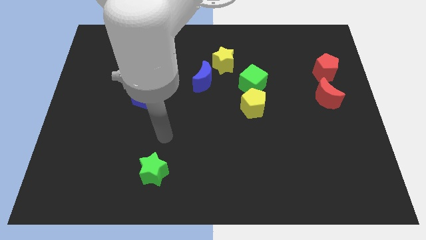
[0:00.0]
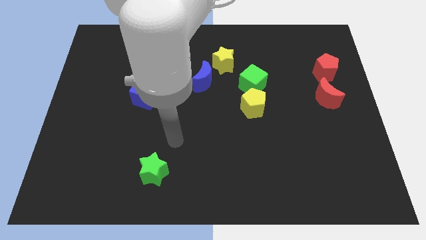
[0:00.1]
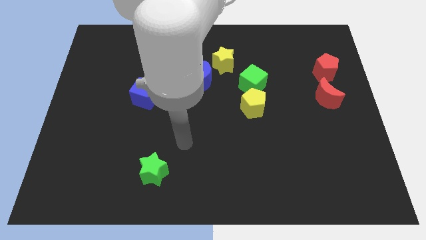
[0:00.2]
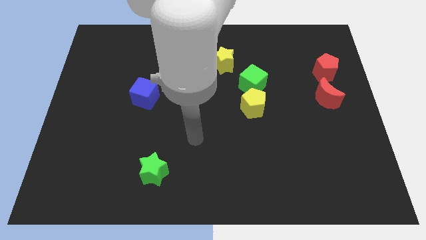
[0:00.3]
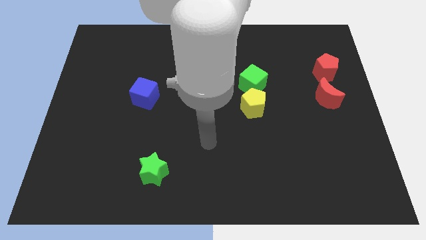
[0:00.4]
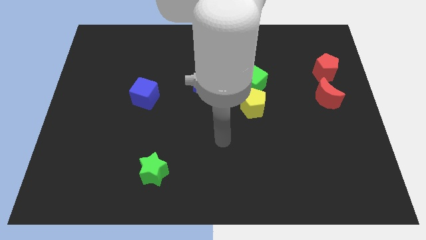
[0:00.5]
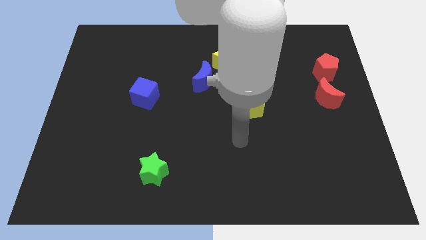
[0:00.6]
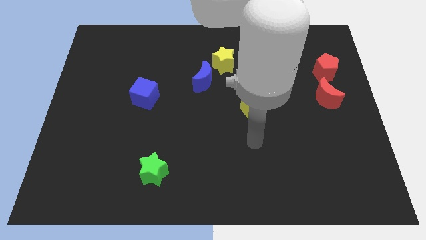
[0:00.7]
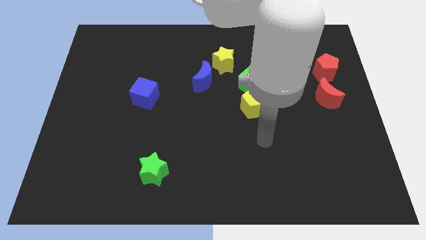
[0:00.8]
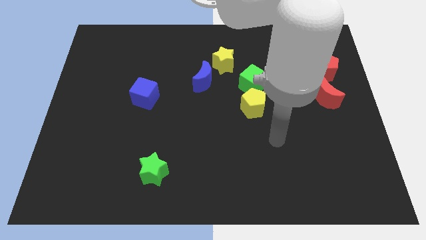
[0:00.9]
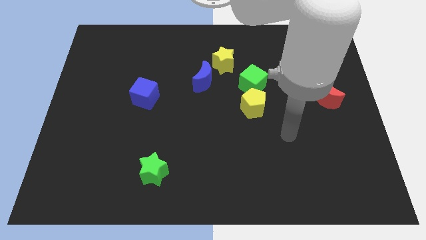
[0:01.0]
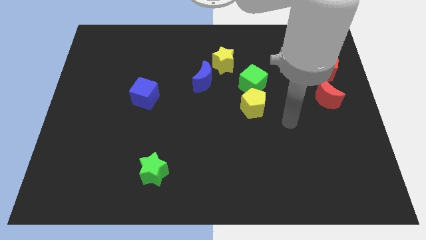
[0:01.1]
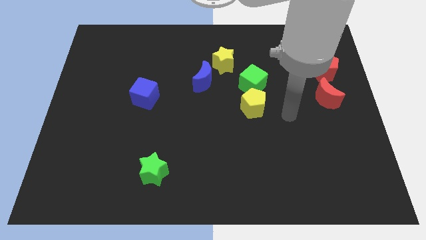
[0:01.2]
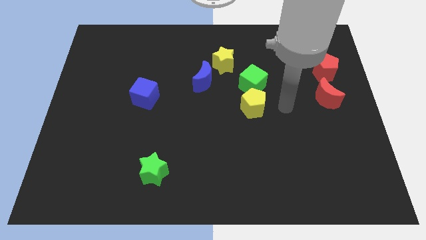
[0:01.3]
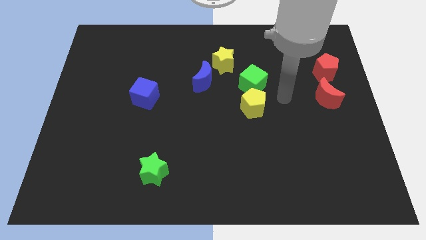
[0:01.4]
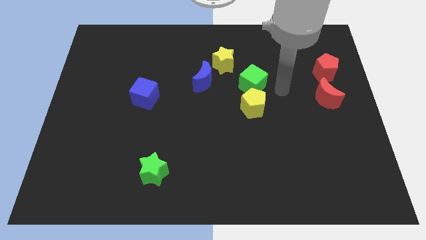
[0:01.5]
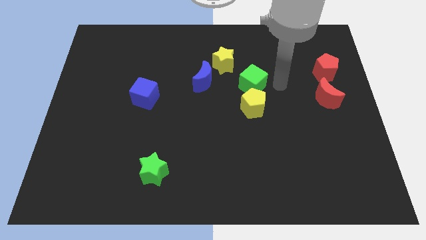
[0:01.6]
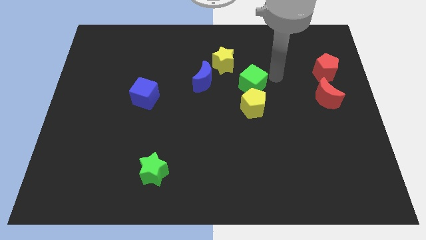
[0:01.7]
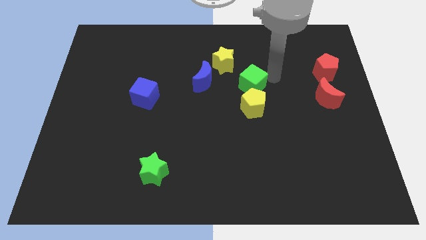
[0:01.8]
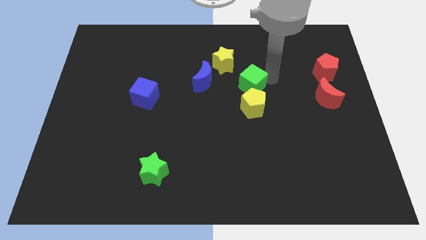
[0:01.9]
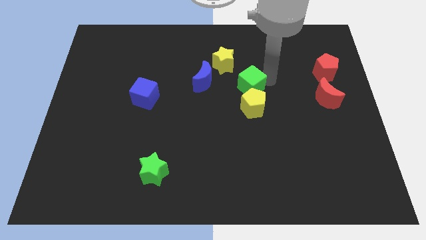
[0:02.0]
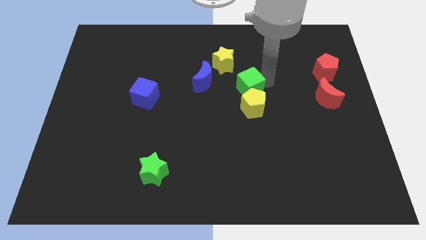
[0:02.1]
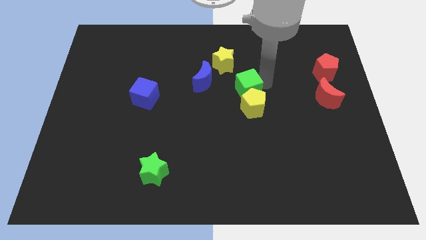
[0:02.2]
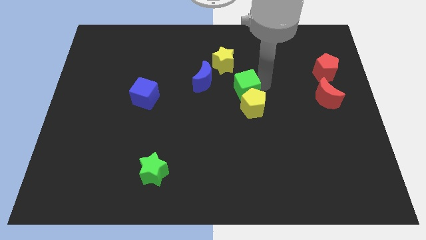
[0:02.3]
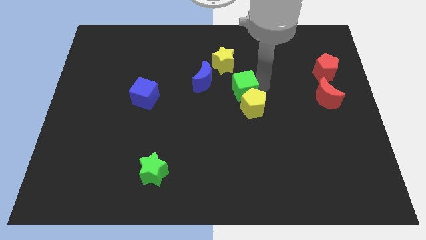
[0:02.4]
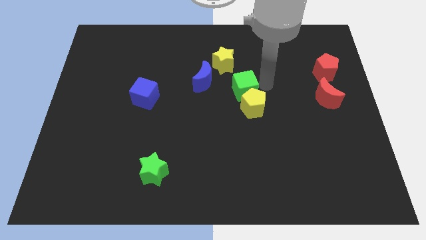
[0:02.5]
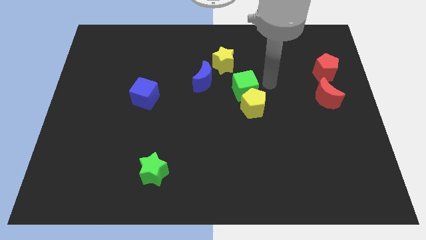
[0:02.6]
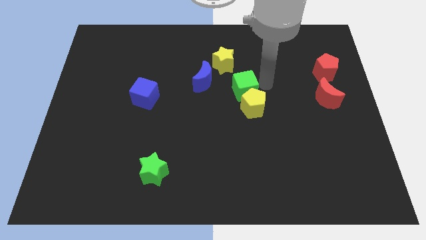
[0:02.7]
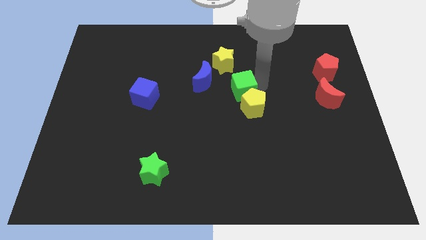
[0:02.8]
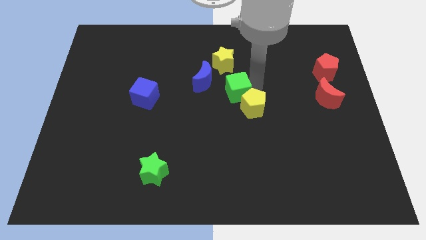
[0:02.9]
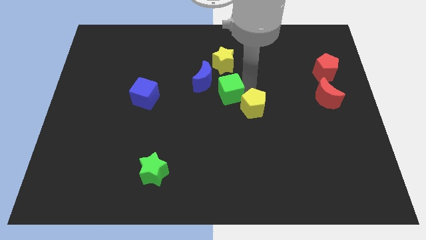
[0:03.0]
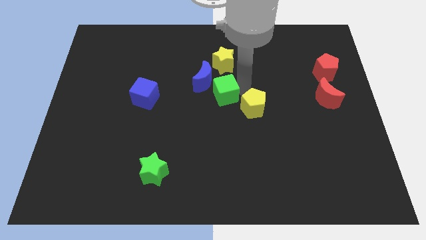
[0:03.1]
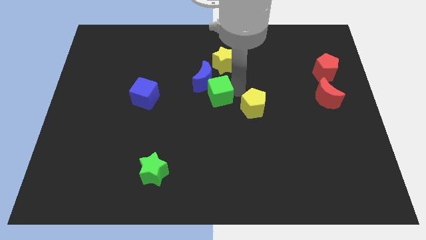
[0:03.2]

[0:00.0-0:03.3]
slide the green cube left a little bit

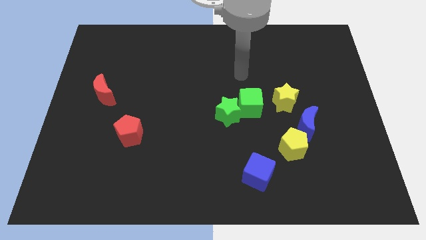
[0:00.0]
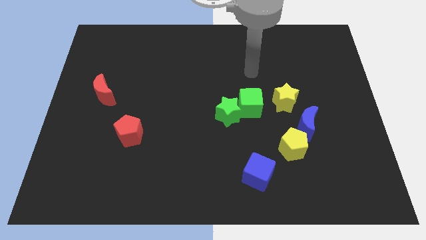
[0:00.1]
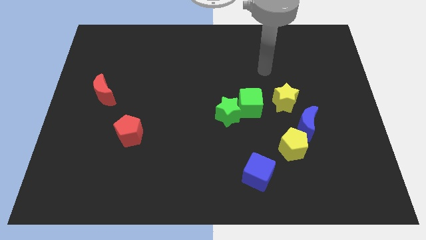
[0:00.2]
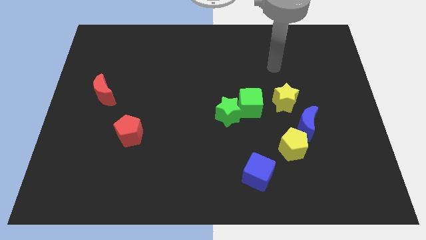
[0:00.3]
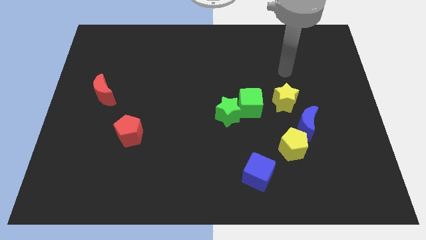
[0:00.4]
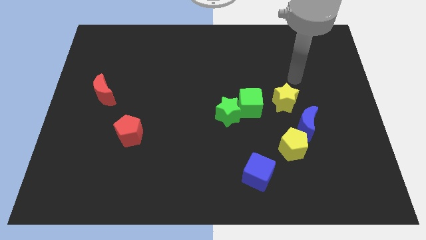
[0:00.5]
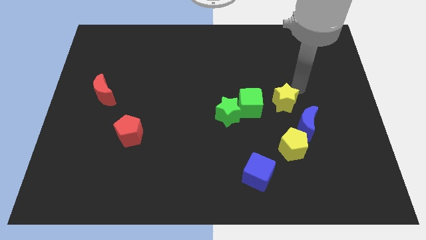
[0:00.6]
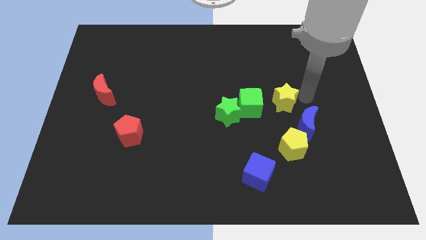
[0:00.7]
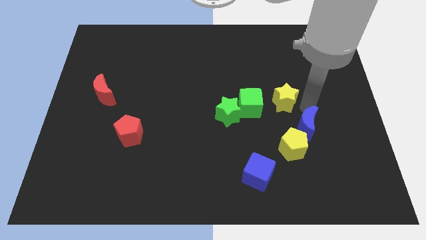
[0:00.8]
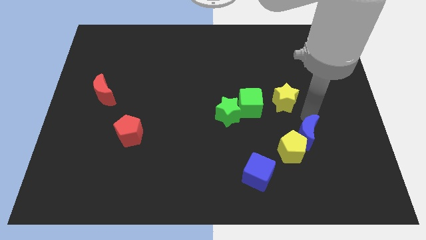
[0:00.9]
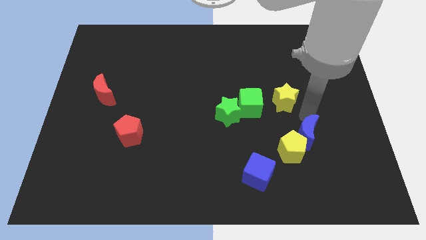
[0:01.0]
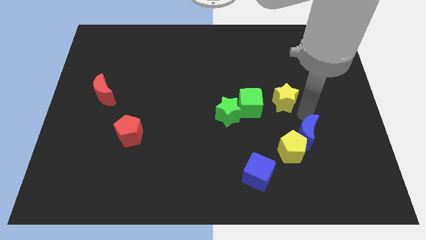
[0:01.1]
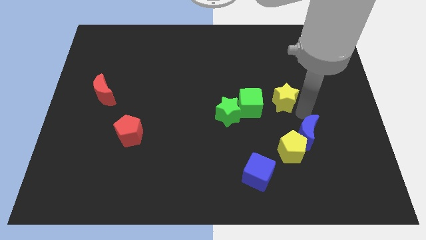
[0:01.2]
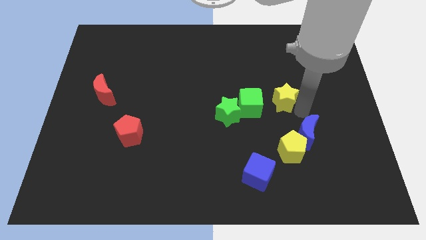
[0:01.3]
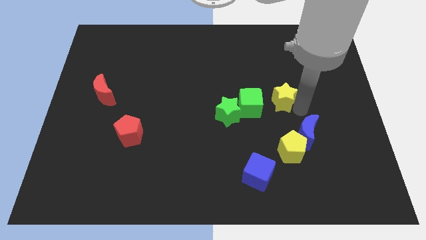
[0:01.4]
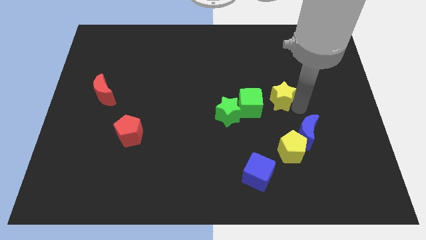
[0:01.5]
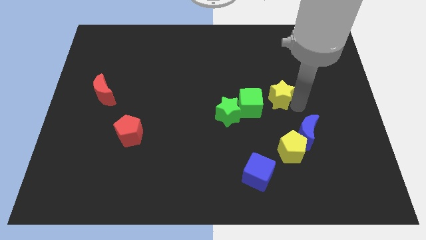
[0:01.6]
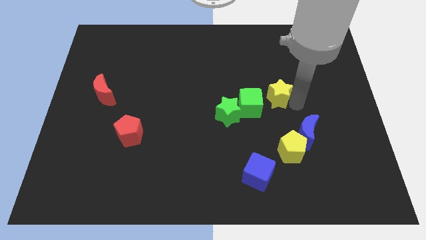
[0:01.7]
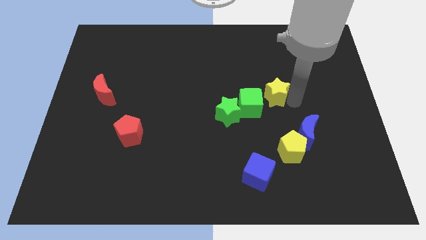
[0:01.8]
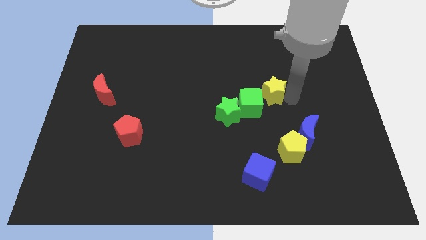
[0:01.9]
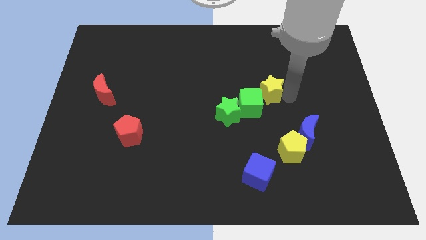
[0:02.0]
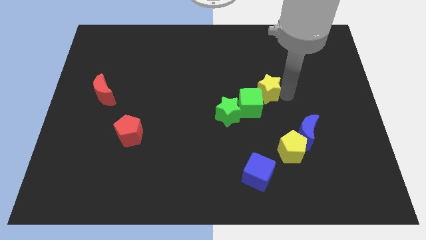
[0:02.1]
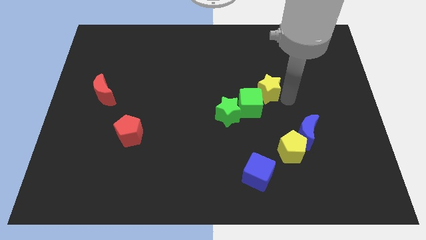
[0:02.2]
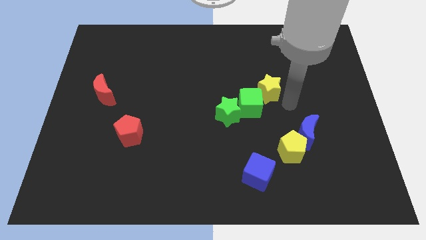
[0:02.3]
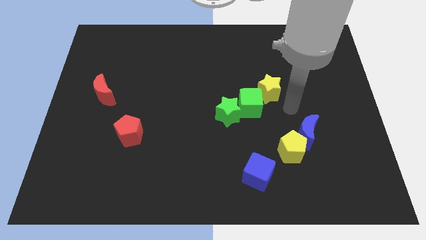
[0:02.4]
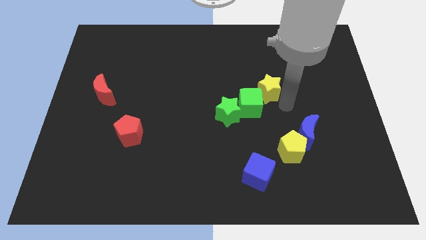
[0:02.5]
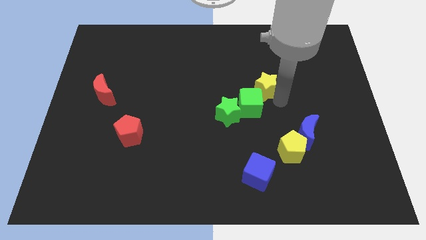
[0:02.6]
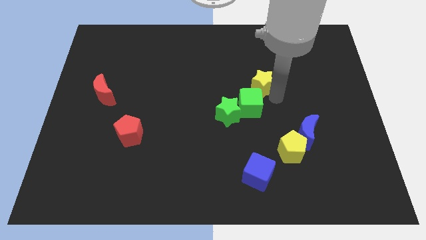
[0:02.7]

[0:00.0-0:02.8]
move the yellow star a bit up and left diagonally

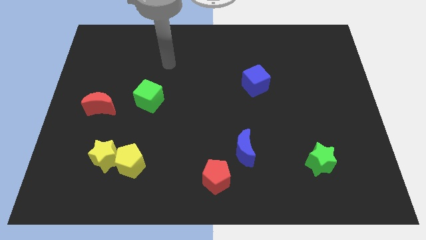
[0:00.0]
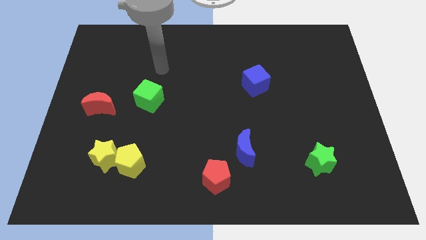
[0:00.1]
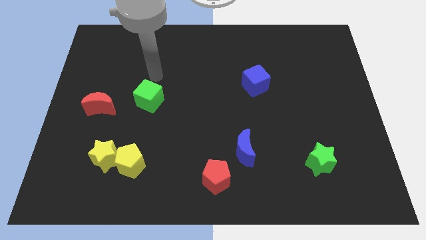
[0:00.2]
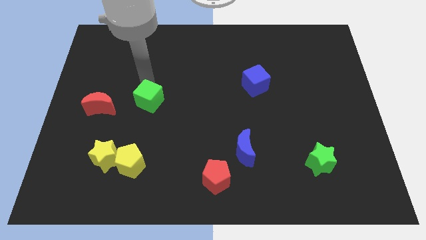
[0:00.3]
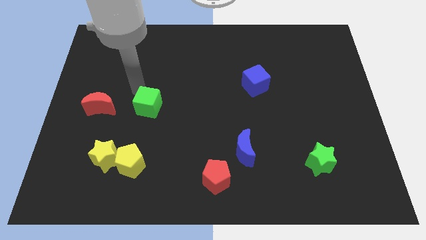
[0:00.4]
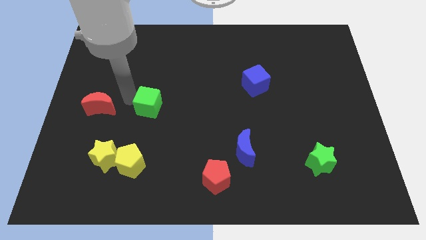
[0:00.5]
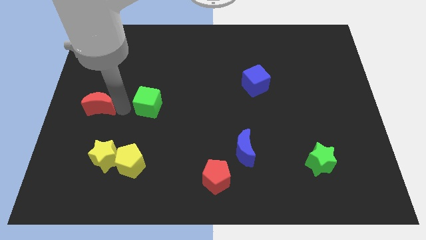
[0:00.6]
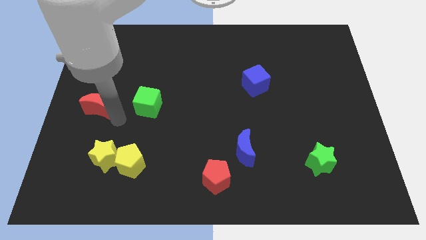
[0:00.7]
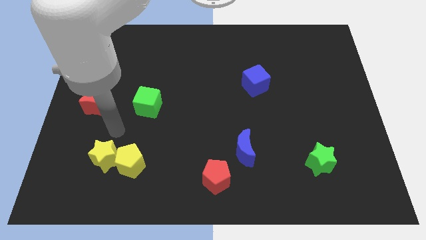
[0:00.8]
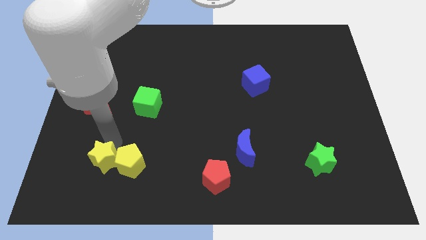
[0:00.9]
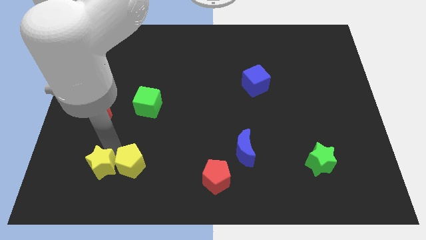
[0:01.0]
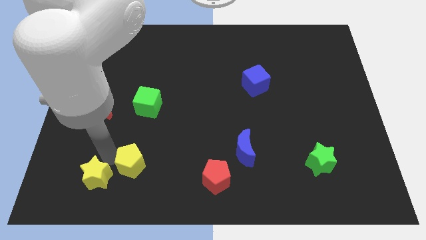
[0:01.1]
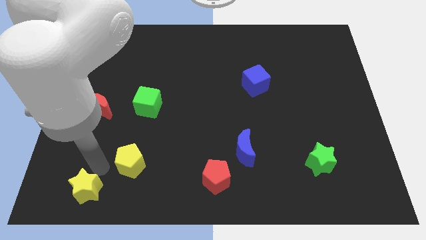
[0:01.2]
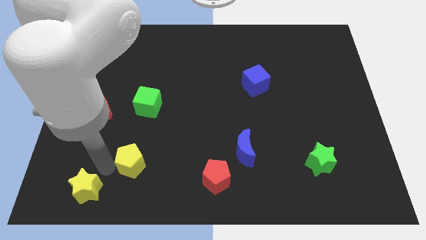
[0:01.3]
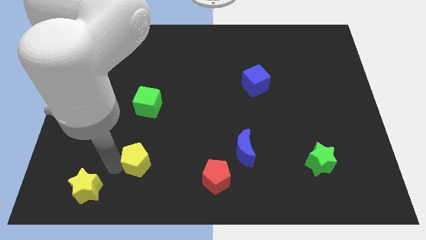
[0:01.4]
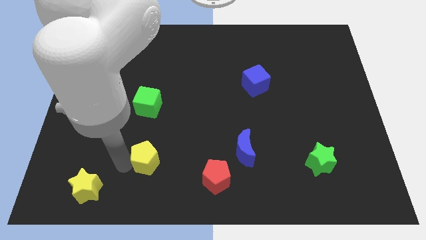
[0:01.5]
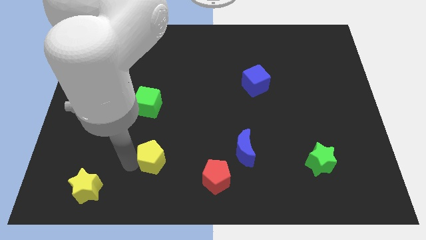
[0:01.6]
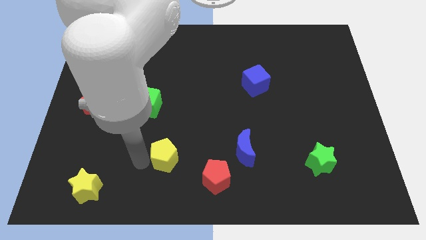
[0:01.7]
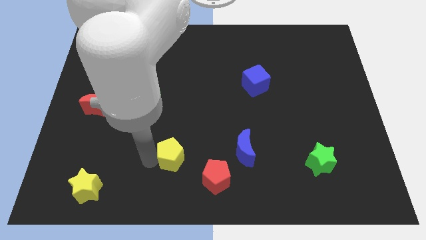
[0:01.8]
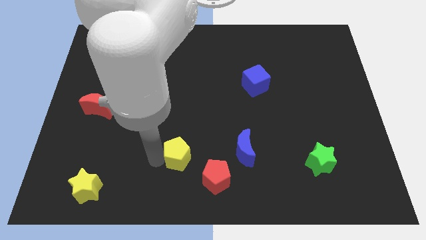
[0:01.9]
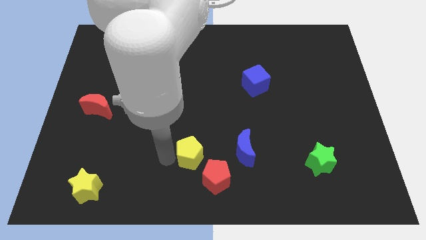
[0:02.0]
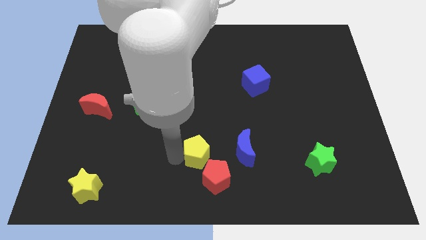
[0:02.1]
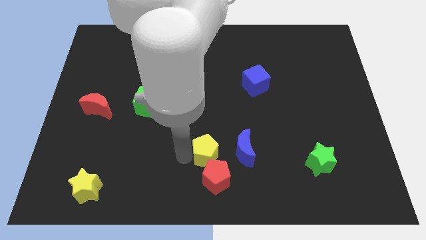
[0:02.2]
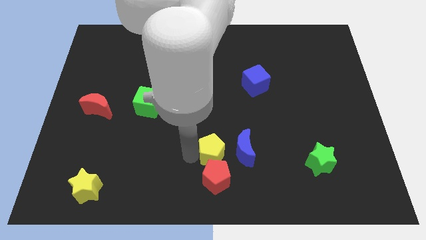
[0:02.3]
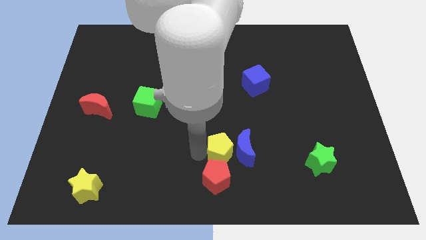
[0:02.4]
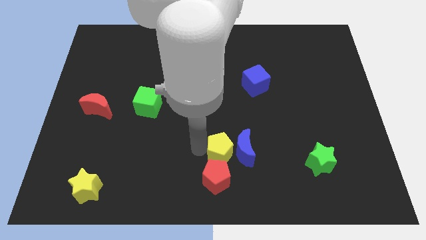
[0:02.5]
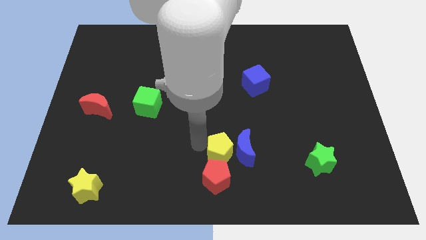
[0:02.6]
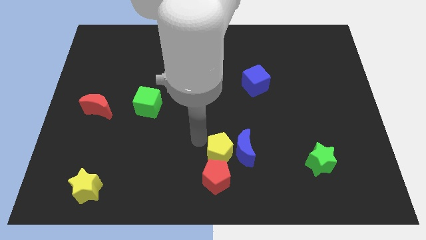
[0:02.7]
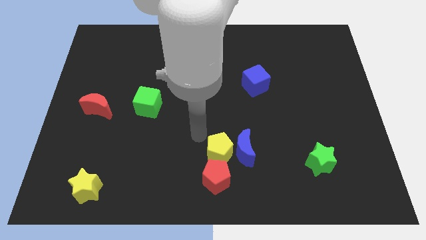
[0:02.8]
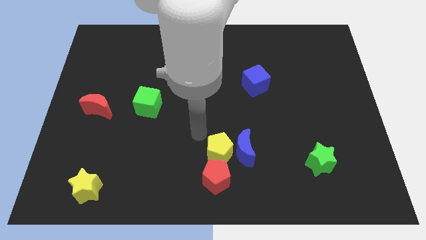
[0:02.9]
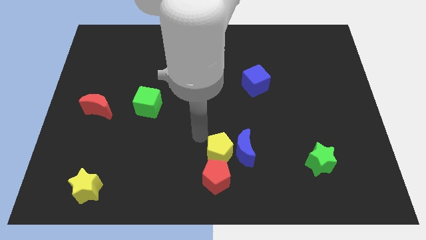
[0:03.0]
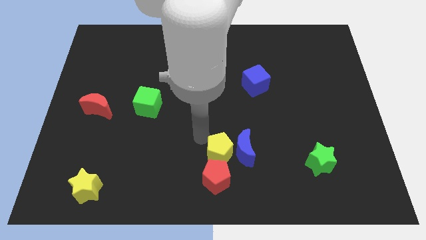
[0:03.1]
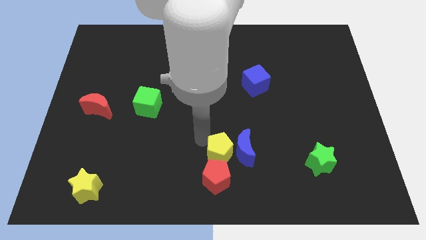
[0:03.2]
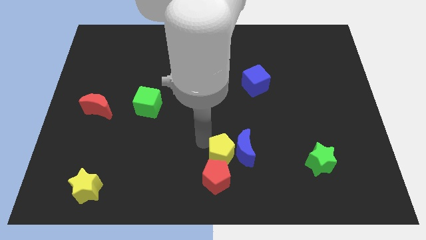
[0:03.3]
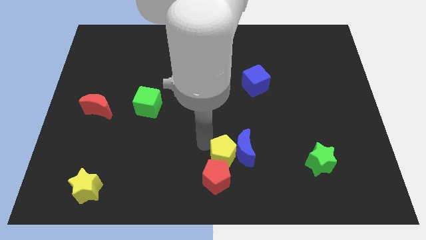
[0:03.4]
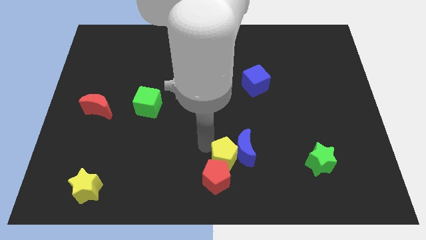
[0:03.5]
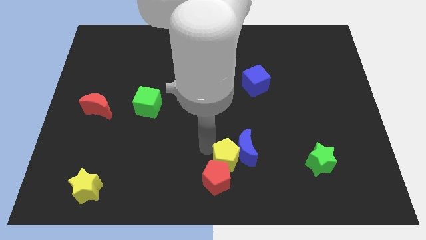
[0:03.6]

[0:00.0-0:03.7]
slide the yellow pentagon to the right
